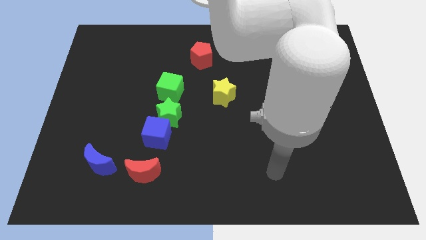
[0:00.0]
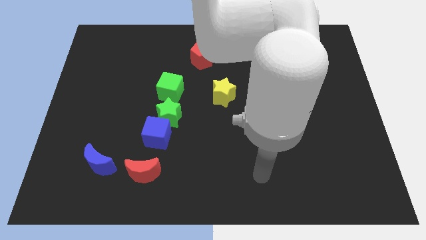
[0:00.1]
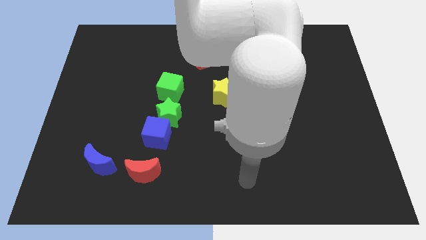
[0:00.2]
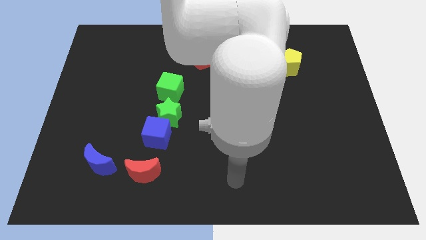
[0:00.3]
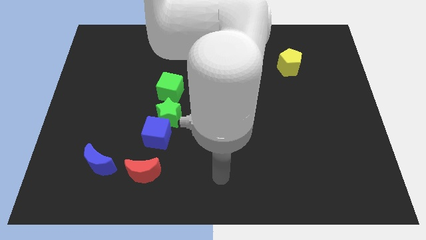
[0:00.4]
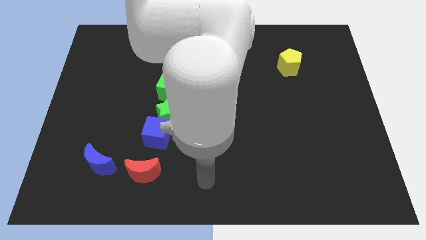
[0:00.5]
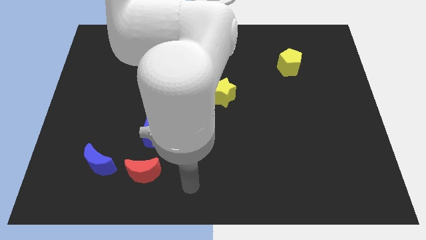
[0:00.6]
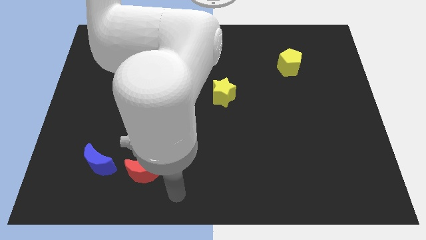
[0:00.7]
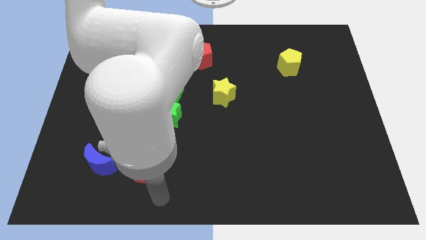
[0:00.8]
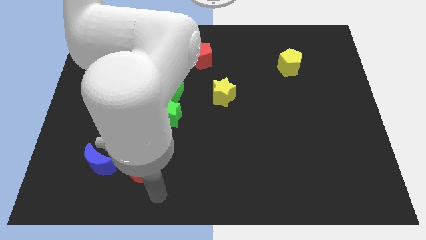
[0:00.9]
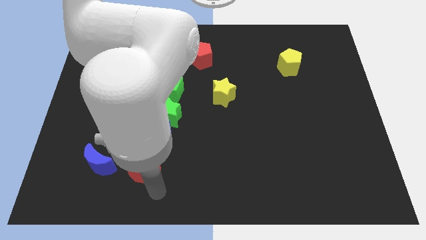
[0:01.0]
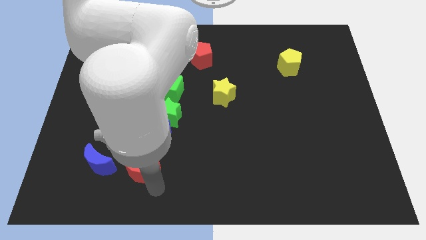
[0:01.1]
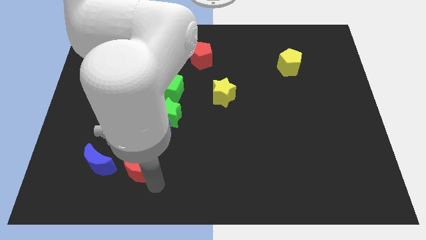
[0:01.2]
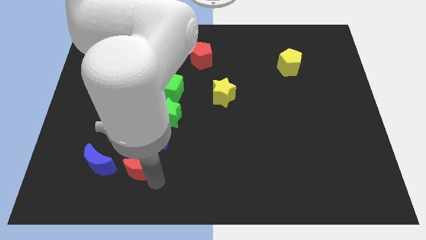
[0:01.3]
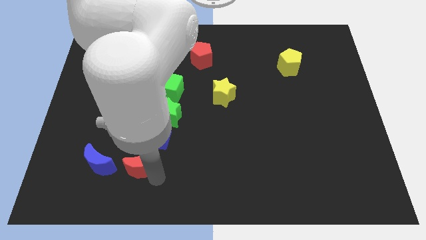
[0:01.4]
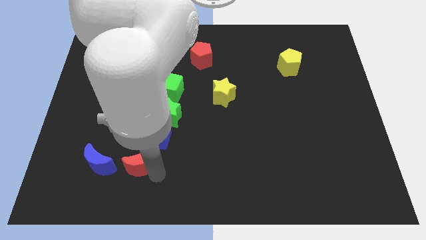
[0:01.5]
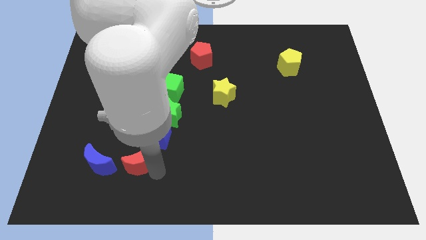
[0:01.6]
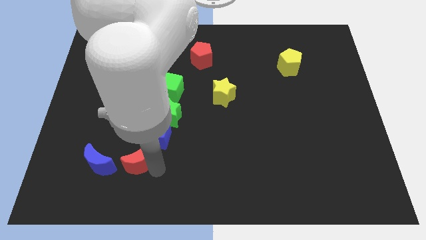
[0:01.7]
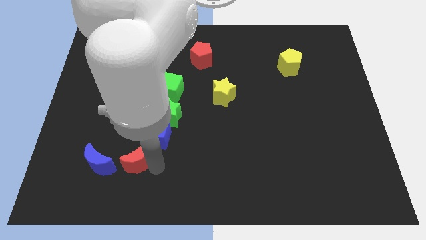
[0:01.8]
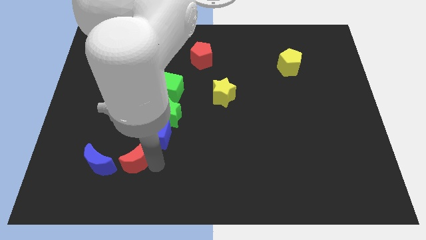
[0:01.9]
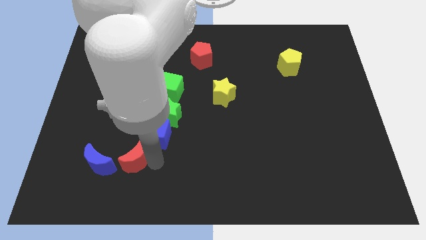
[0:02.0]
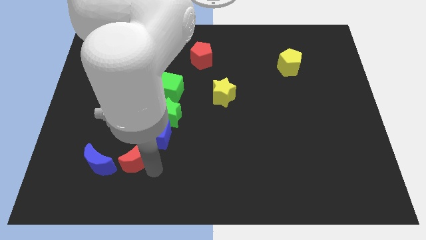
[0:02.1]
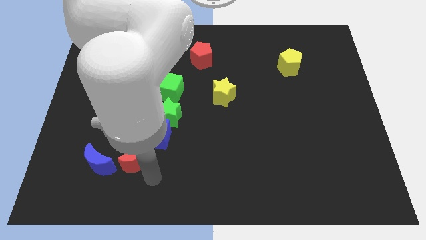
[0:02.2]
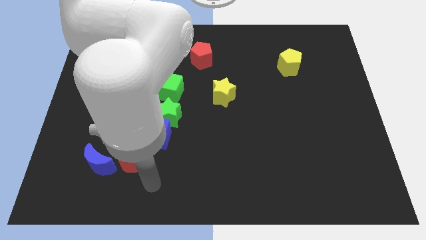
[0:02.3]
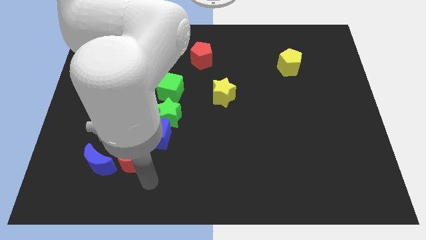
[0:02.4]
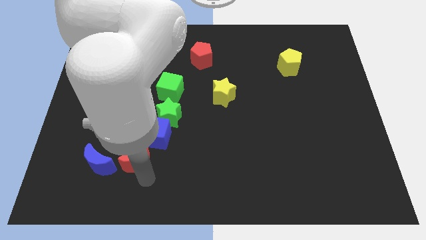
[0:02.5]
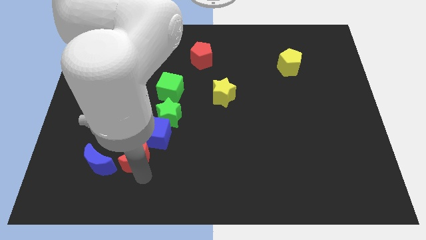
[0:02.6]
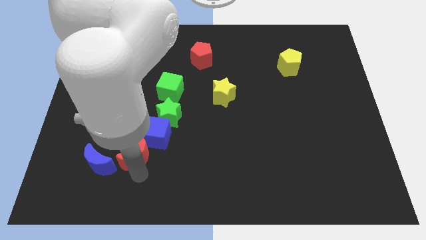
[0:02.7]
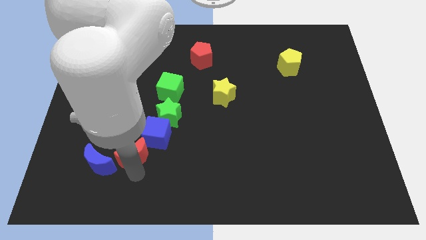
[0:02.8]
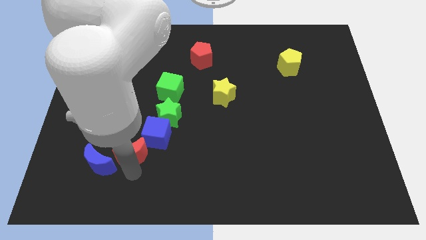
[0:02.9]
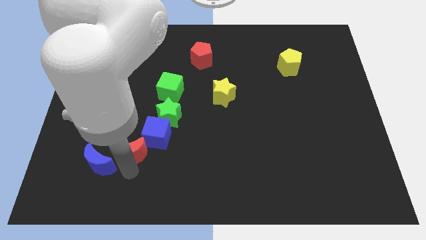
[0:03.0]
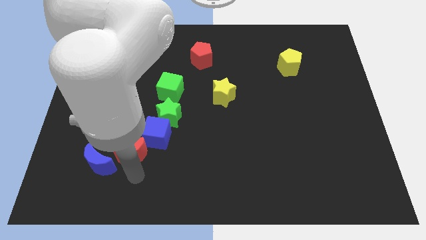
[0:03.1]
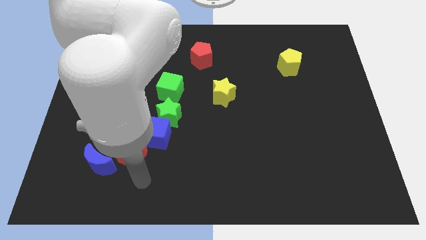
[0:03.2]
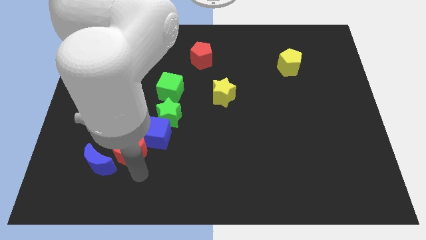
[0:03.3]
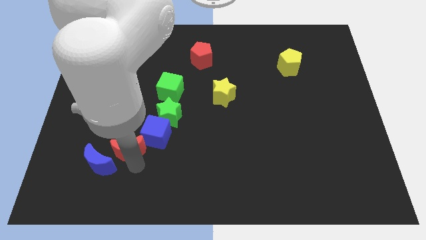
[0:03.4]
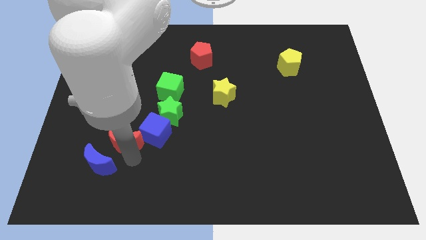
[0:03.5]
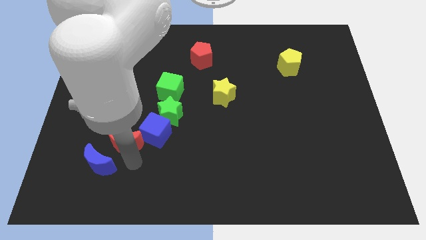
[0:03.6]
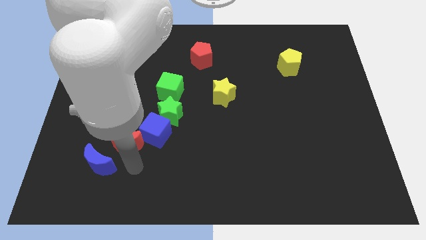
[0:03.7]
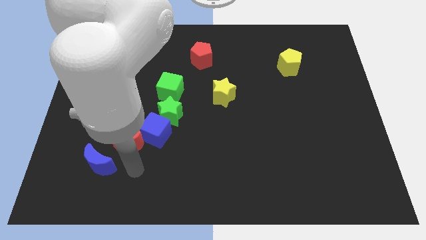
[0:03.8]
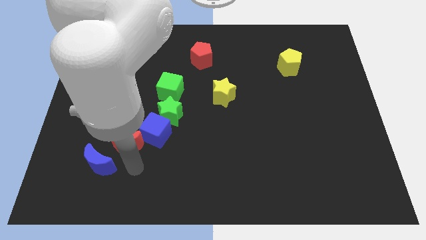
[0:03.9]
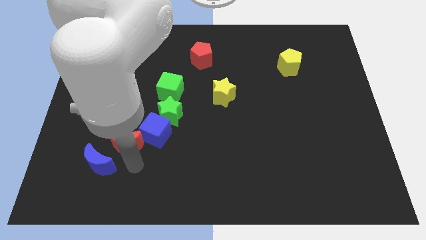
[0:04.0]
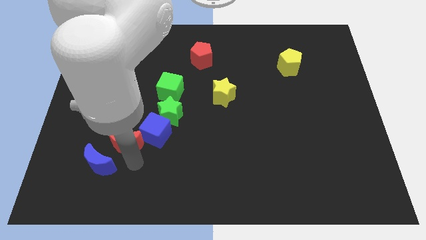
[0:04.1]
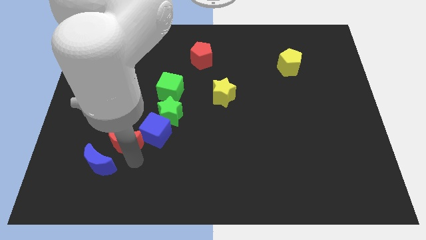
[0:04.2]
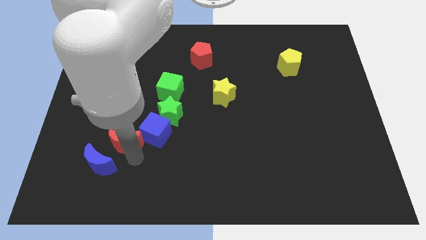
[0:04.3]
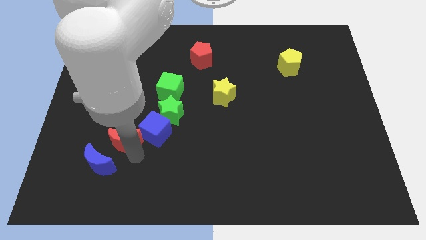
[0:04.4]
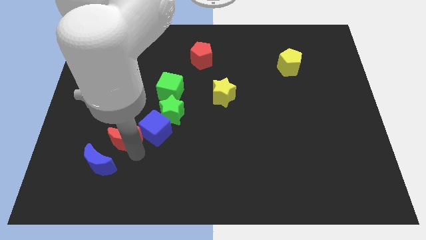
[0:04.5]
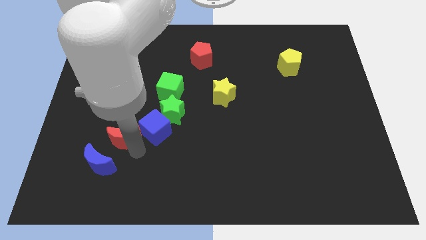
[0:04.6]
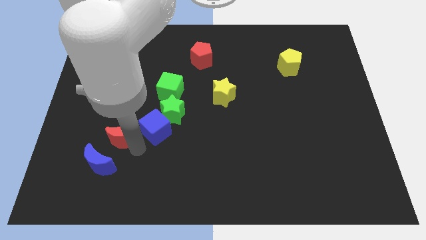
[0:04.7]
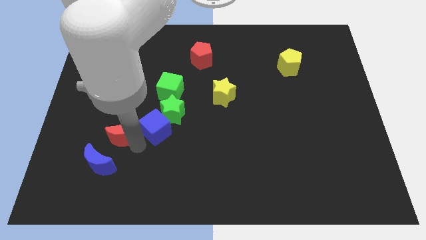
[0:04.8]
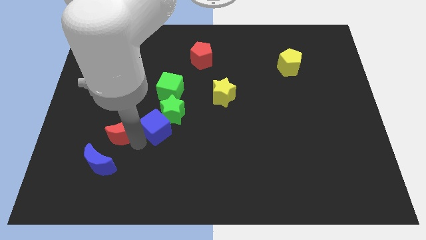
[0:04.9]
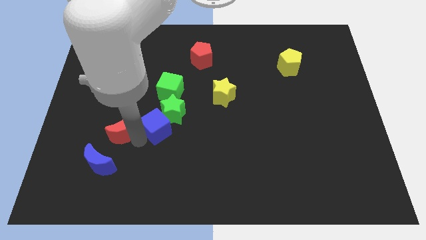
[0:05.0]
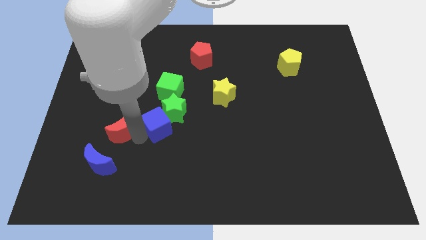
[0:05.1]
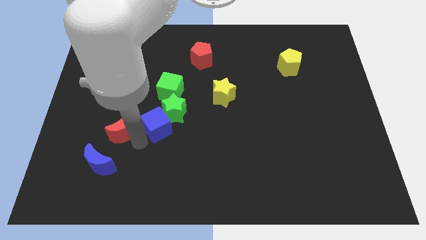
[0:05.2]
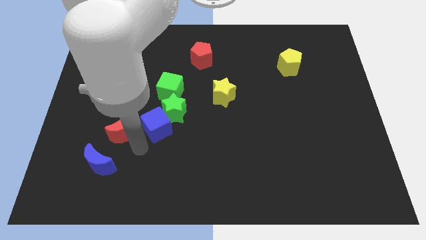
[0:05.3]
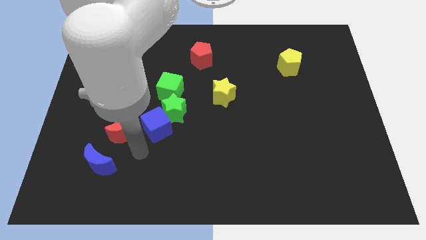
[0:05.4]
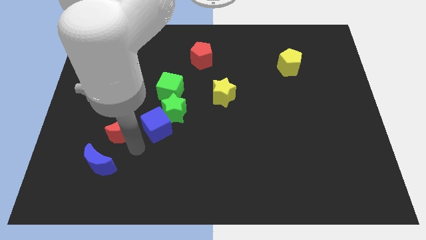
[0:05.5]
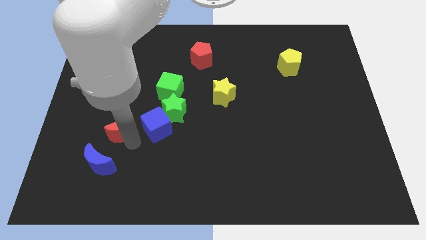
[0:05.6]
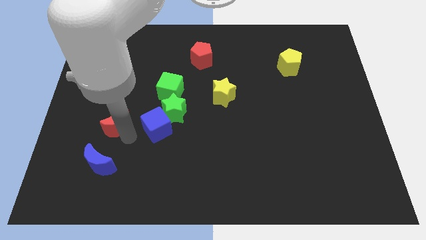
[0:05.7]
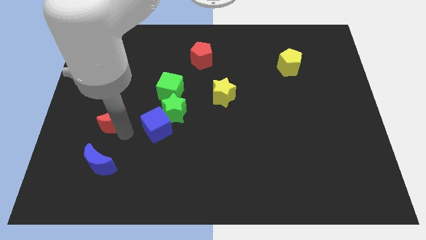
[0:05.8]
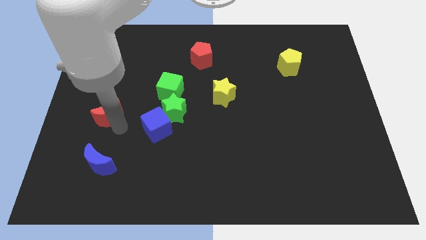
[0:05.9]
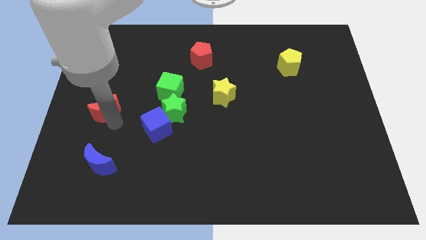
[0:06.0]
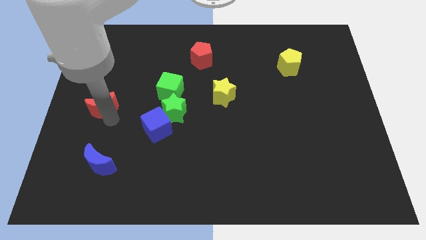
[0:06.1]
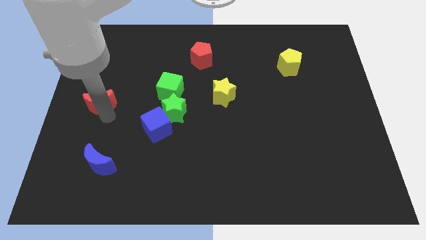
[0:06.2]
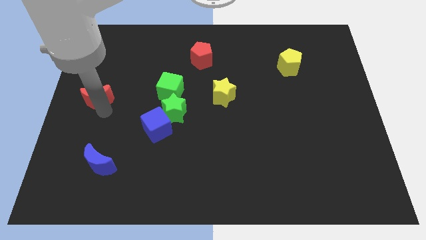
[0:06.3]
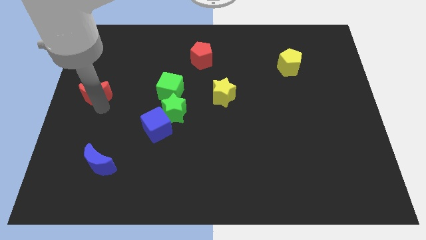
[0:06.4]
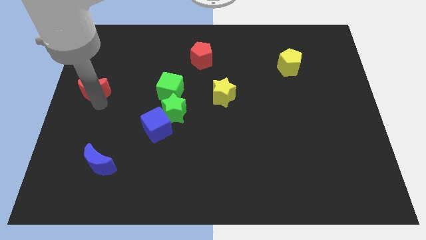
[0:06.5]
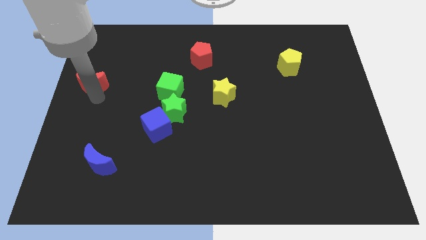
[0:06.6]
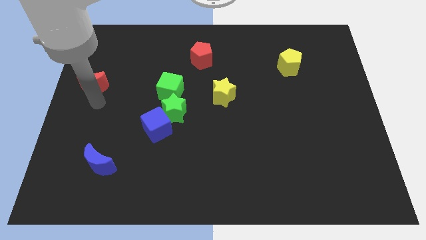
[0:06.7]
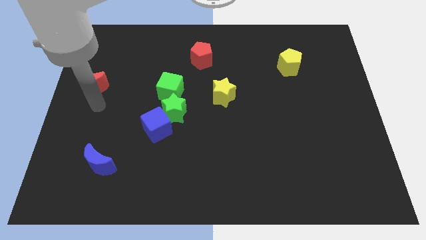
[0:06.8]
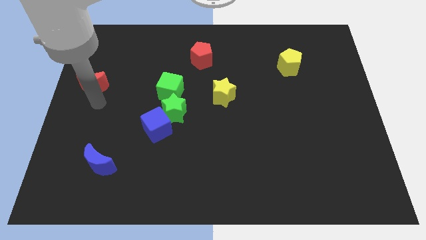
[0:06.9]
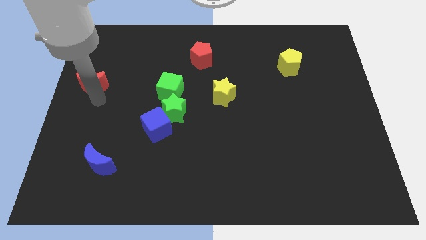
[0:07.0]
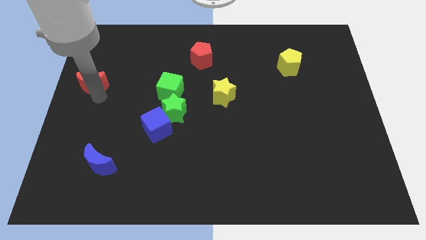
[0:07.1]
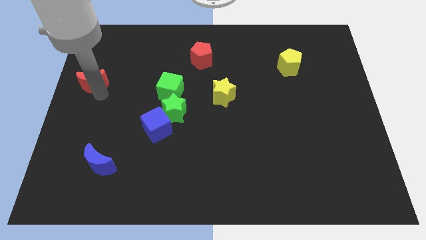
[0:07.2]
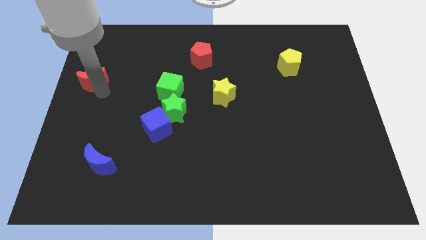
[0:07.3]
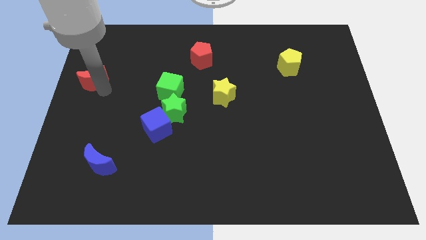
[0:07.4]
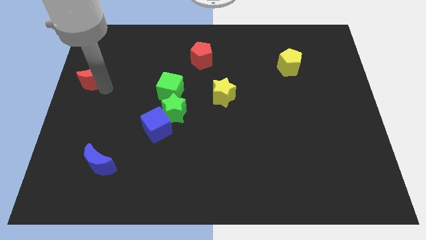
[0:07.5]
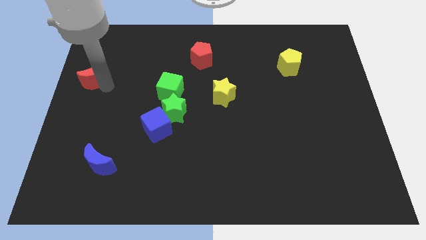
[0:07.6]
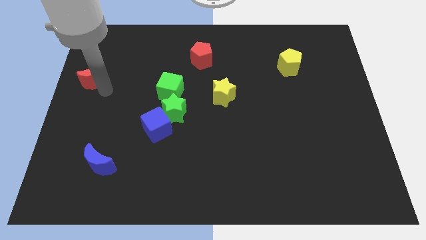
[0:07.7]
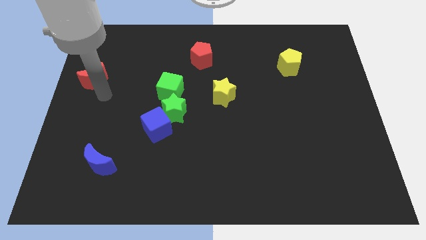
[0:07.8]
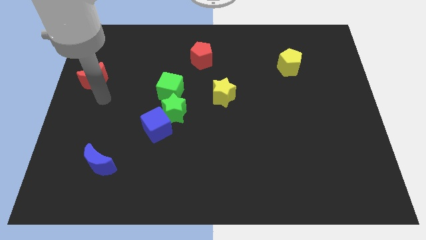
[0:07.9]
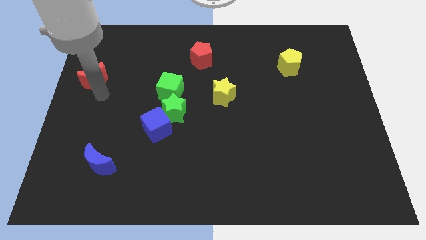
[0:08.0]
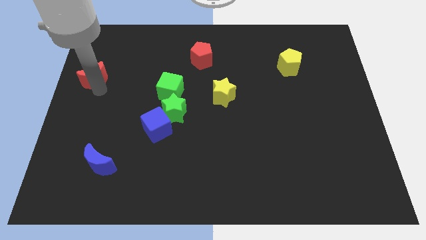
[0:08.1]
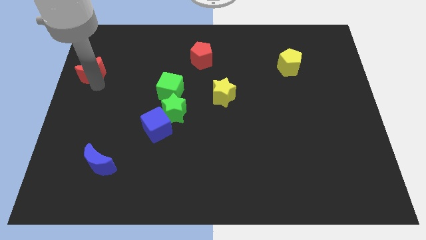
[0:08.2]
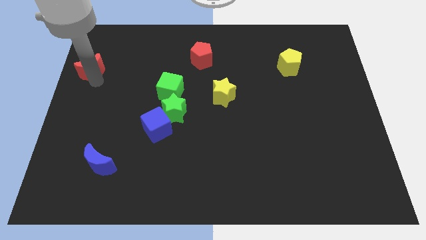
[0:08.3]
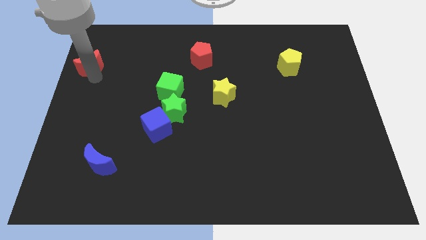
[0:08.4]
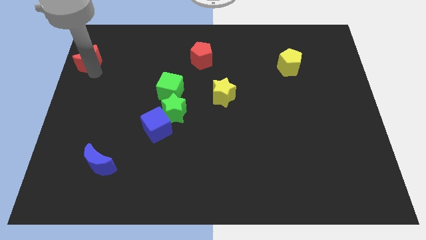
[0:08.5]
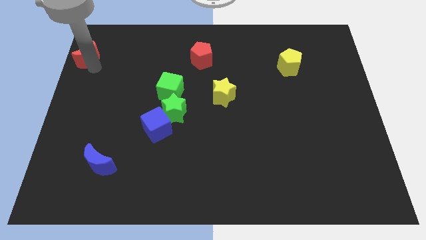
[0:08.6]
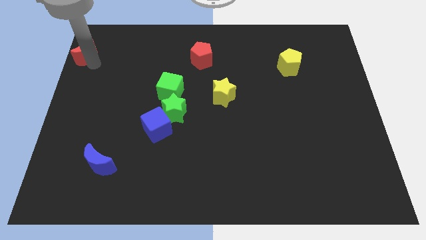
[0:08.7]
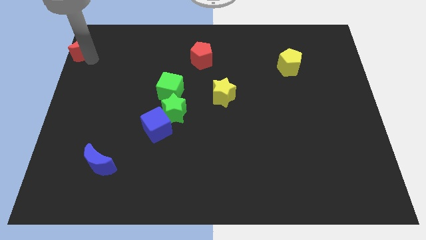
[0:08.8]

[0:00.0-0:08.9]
put the red moon to the top left
